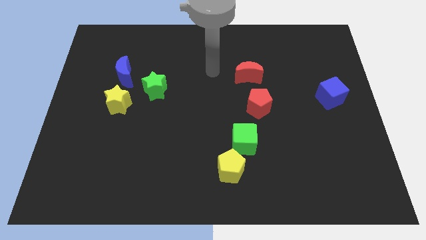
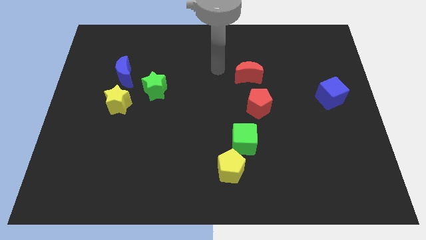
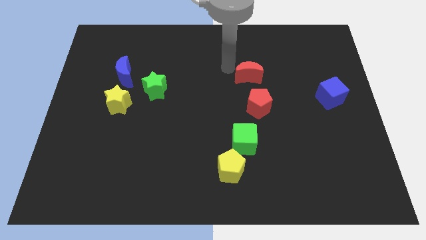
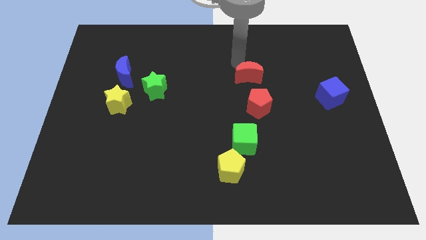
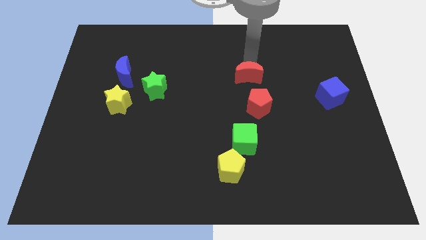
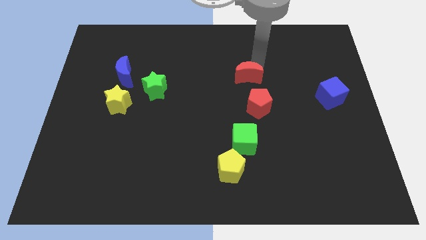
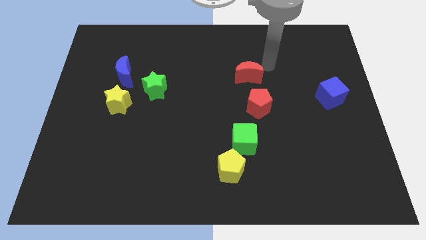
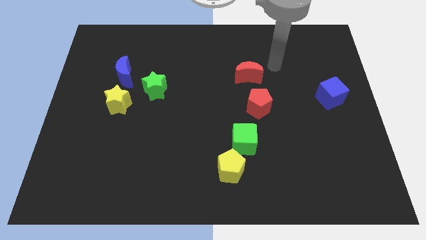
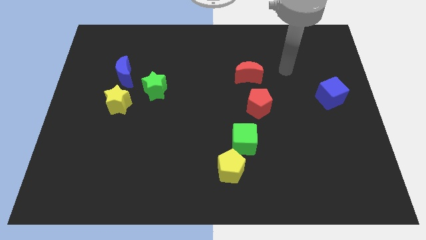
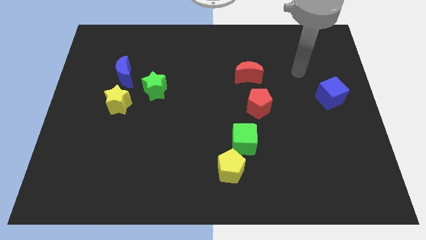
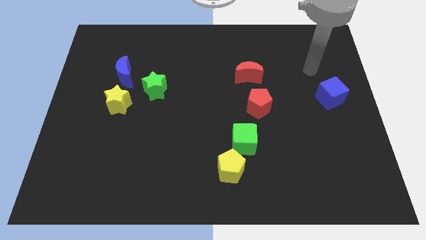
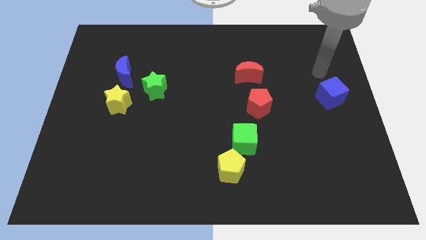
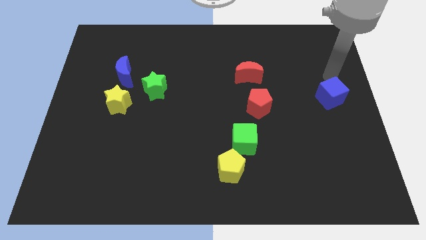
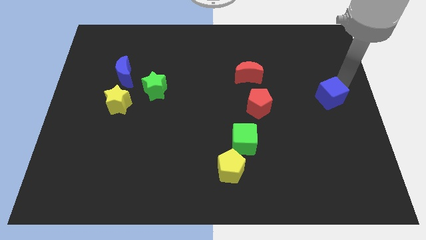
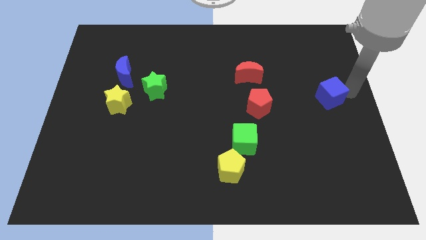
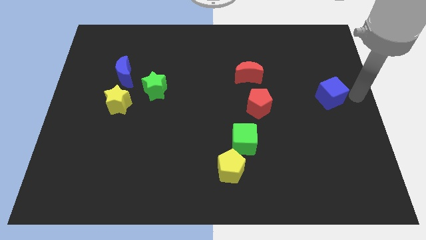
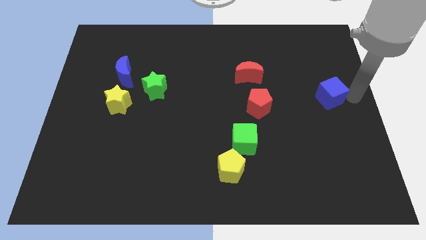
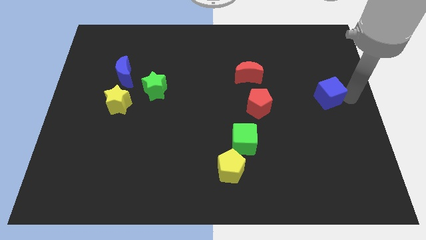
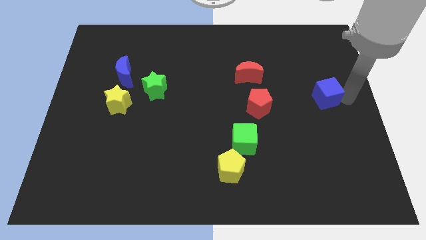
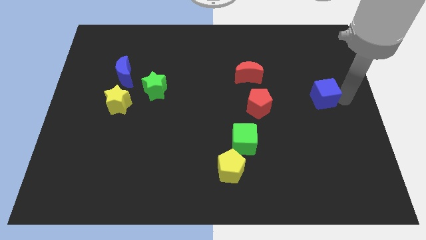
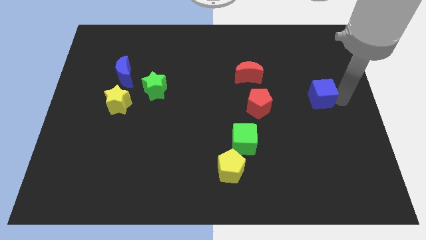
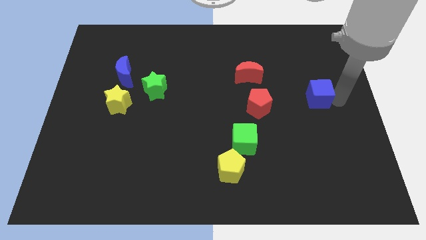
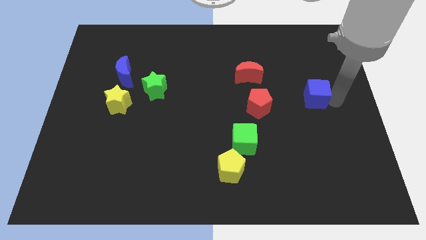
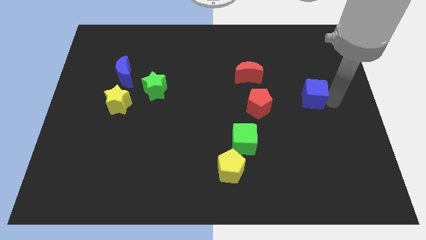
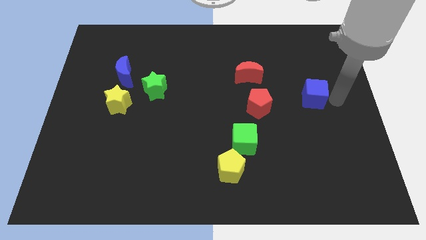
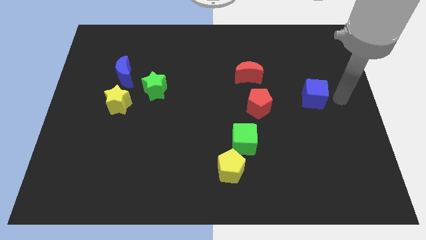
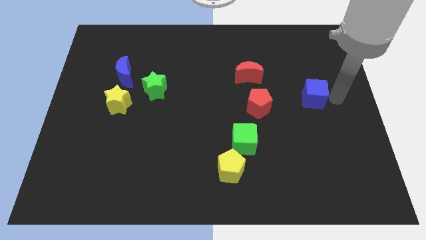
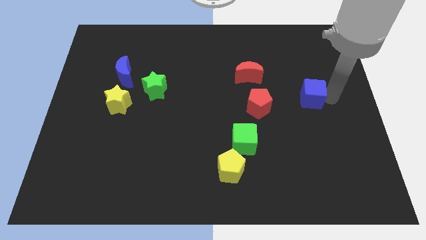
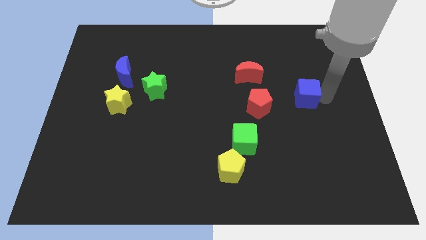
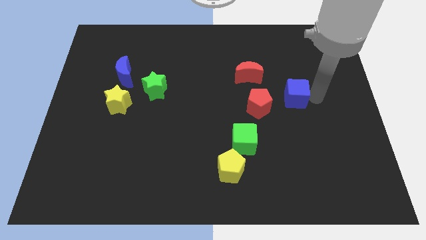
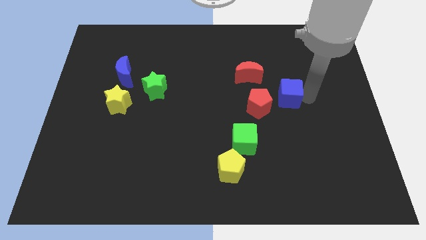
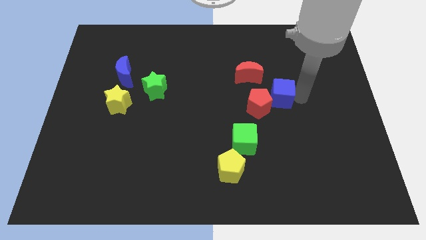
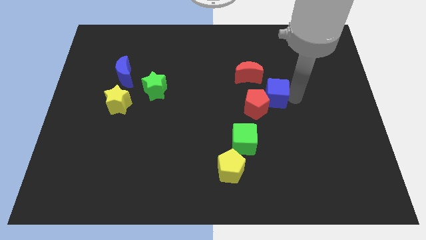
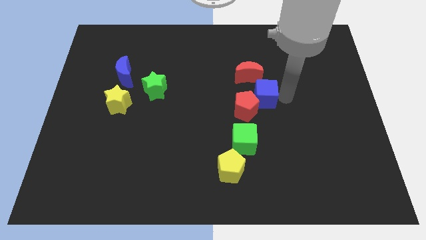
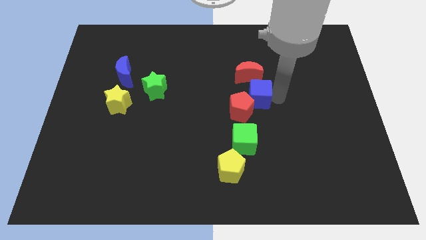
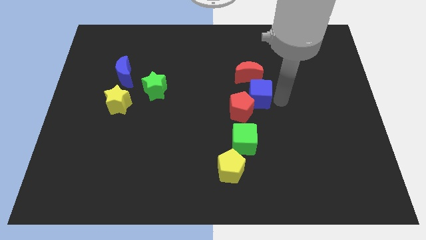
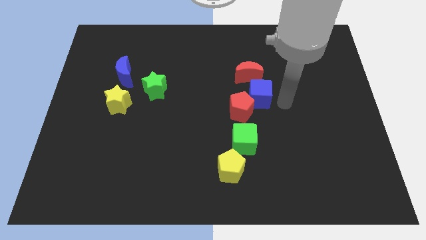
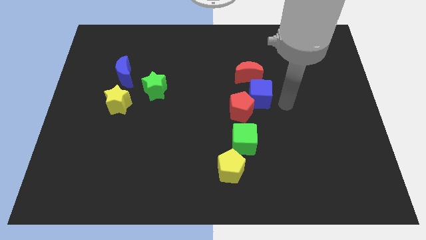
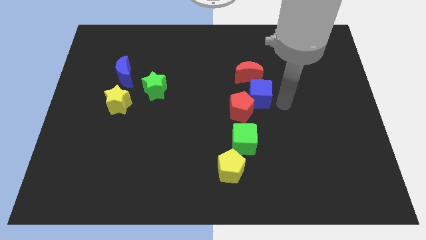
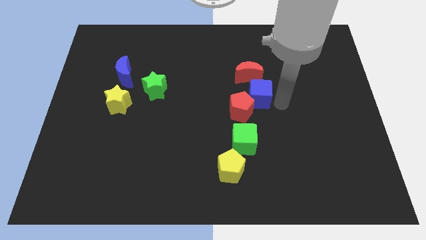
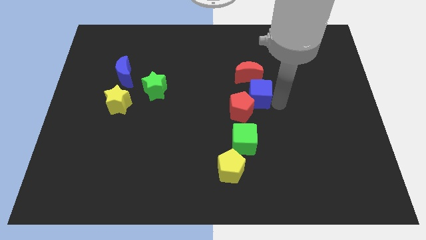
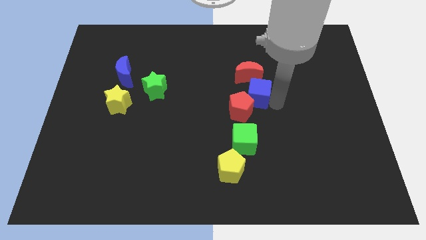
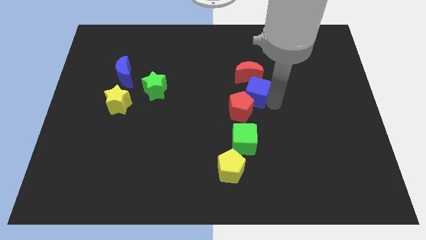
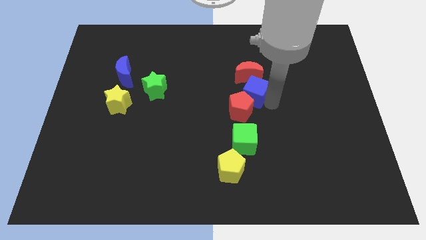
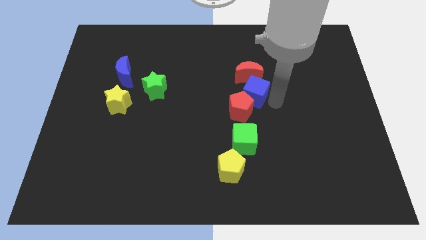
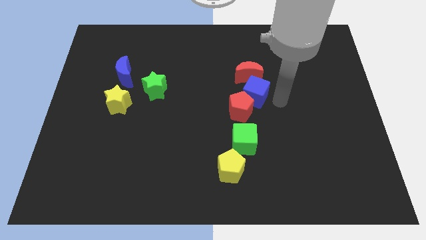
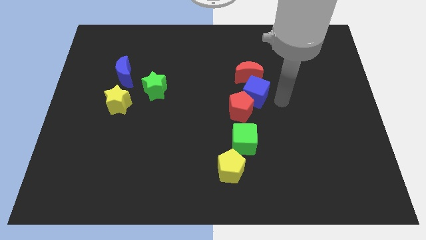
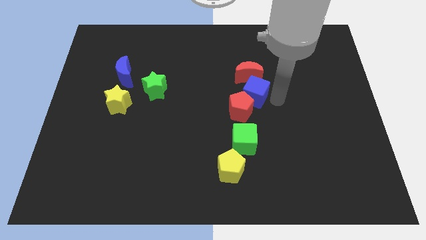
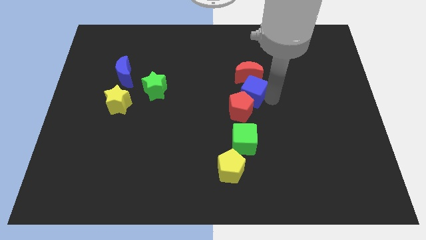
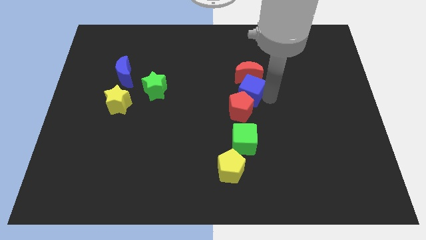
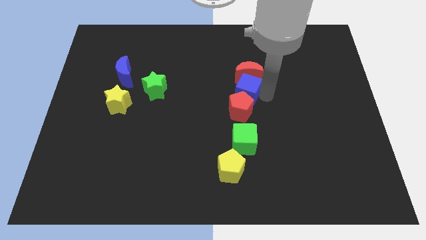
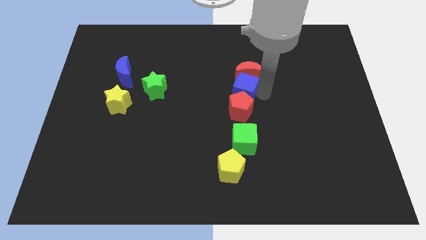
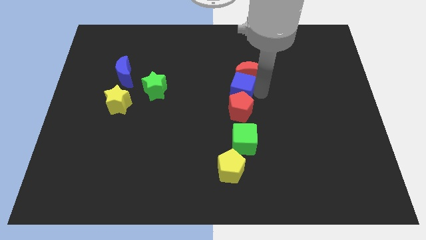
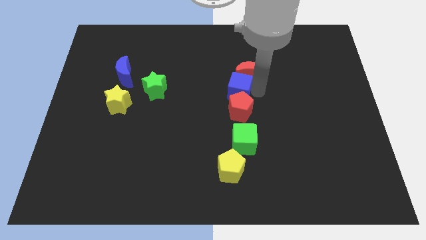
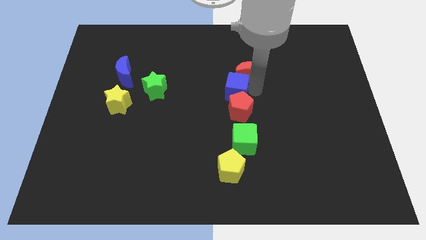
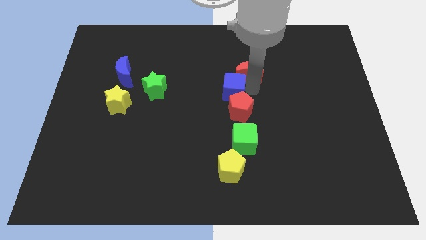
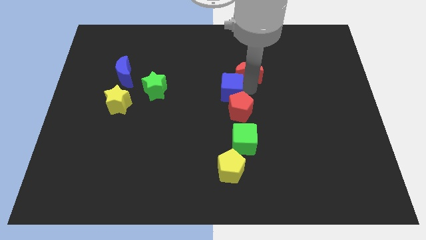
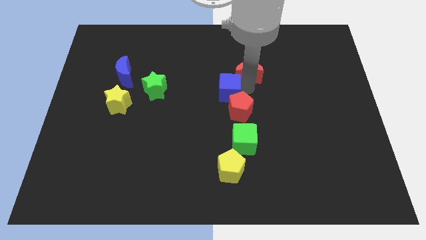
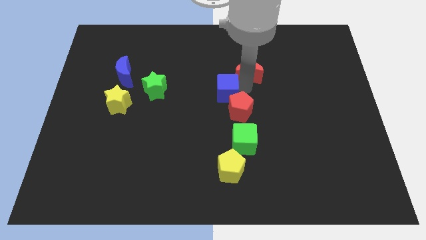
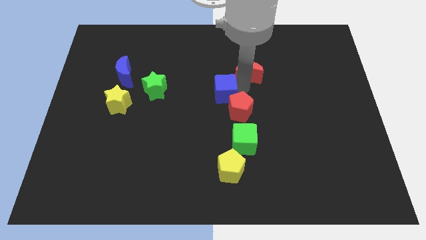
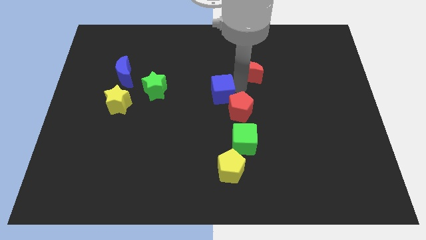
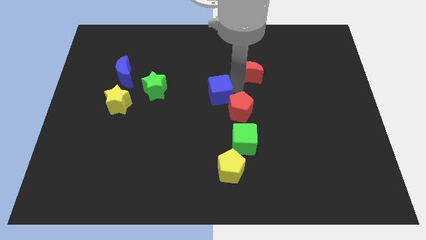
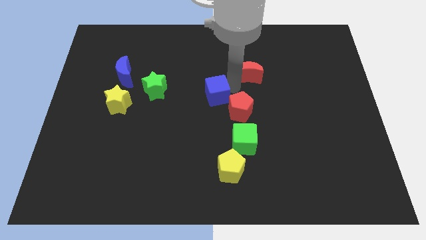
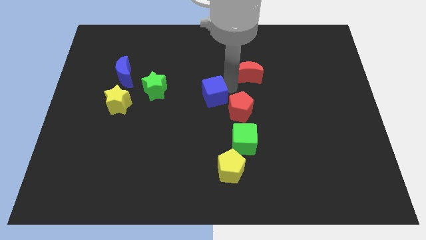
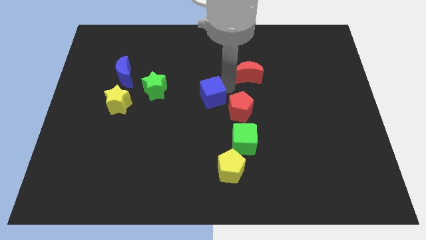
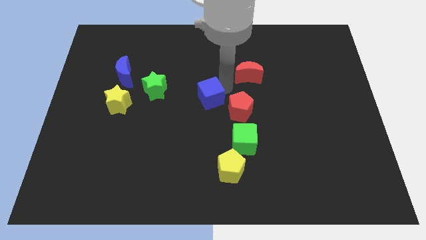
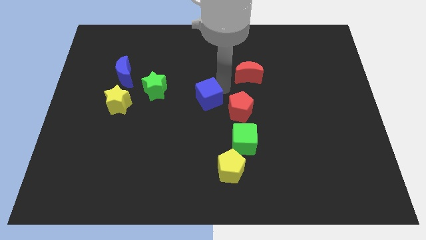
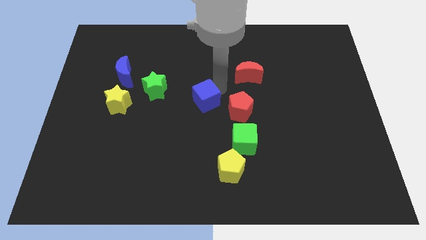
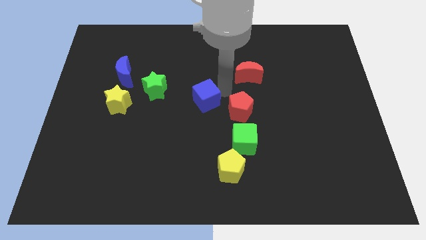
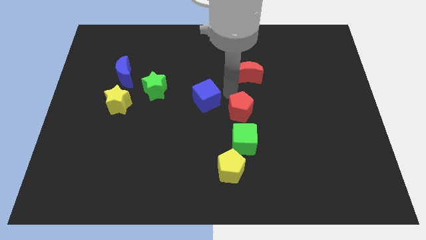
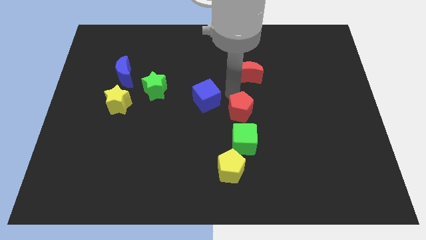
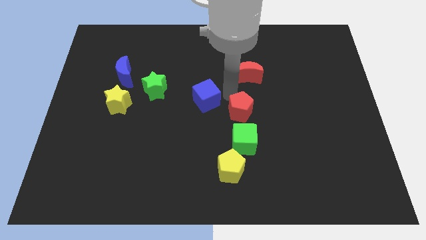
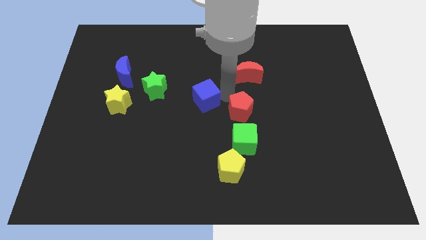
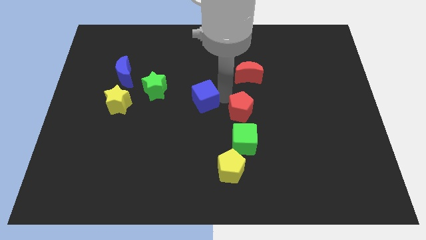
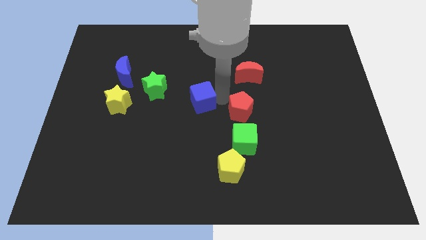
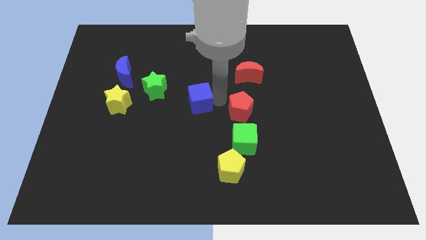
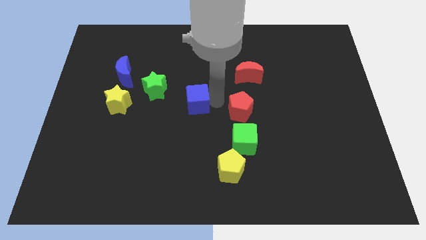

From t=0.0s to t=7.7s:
slide the blue cube to the bottom right side of the green star
